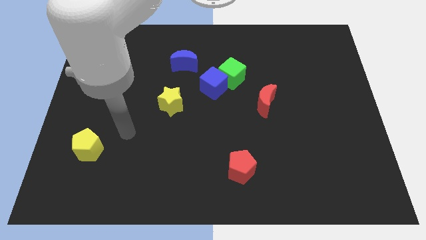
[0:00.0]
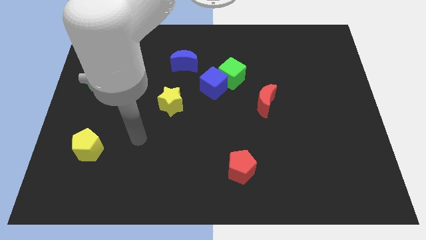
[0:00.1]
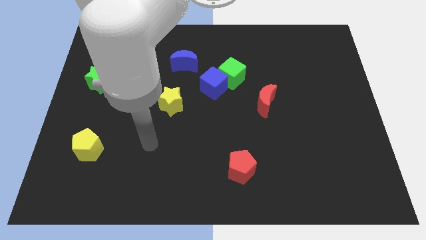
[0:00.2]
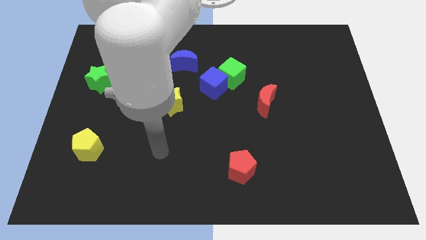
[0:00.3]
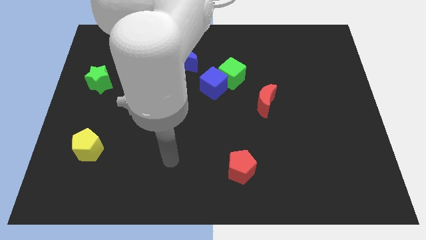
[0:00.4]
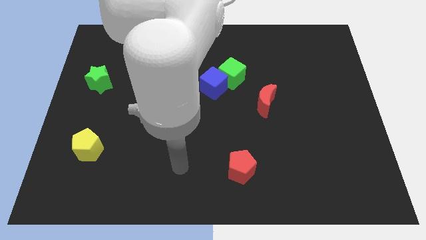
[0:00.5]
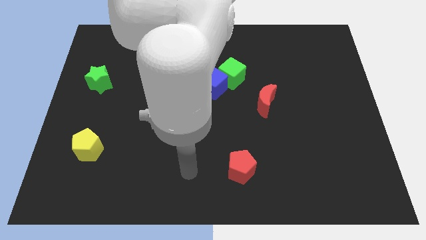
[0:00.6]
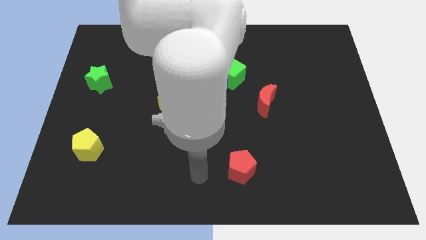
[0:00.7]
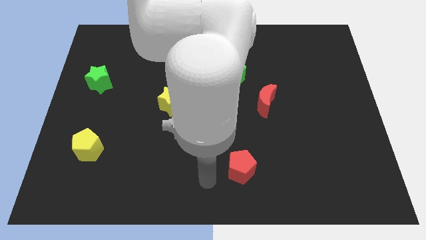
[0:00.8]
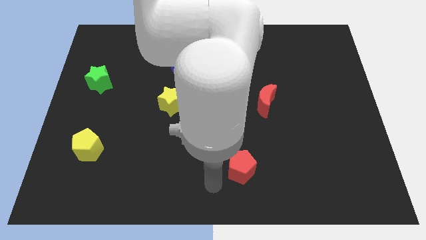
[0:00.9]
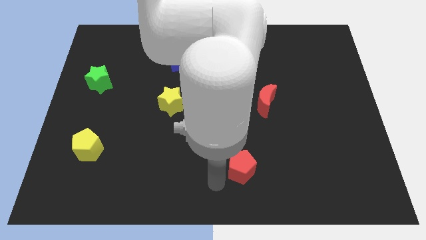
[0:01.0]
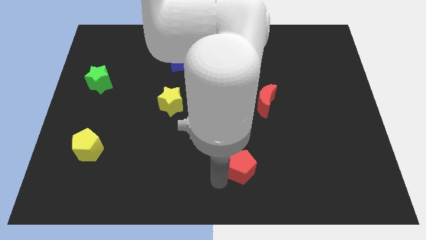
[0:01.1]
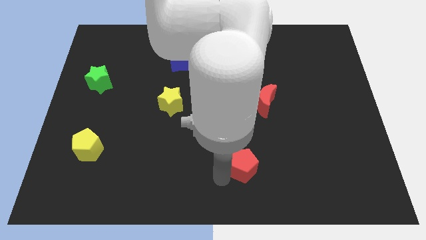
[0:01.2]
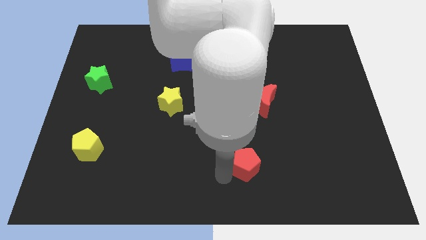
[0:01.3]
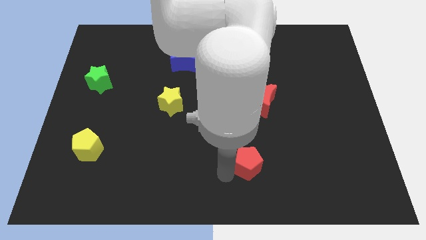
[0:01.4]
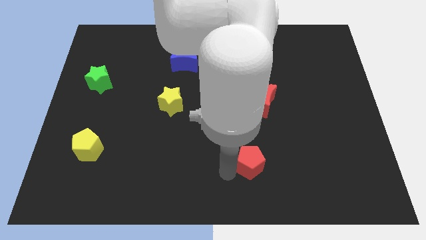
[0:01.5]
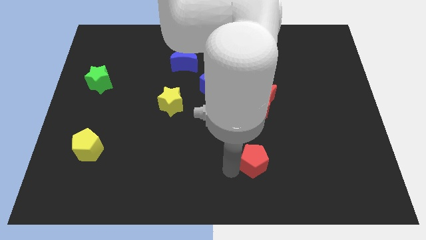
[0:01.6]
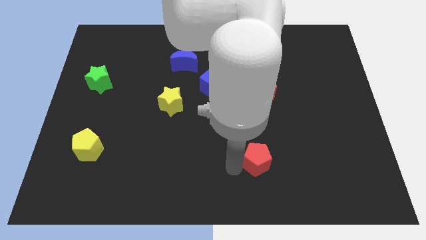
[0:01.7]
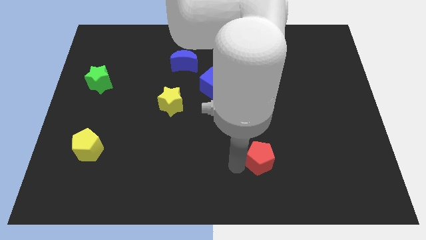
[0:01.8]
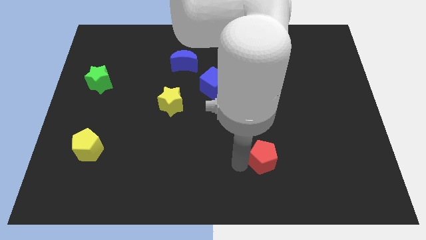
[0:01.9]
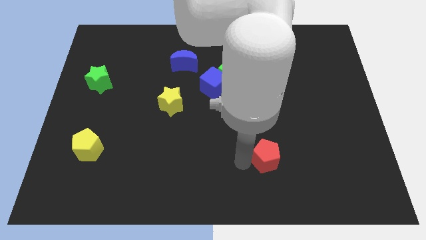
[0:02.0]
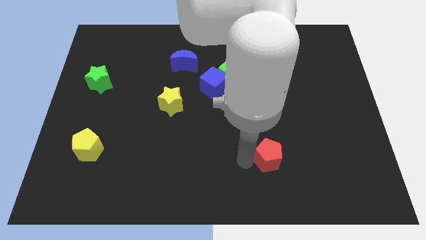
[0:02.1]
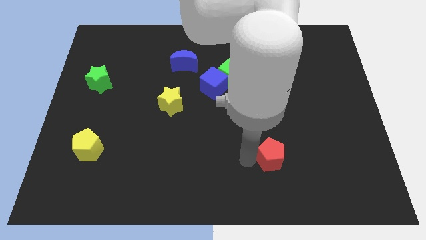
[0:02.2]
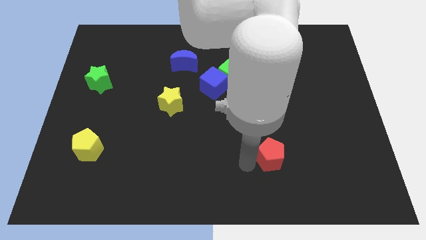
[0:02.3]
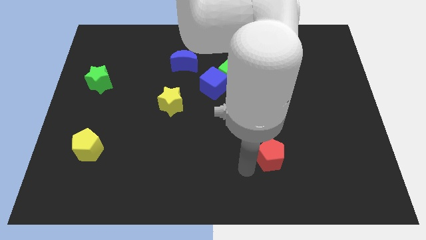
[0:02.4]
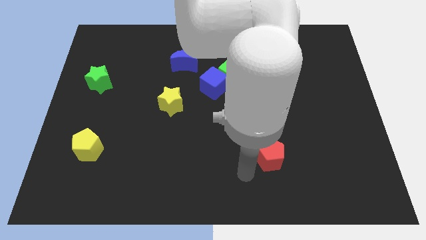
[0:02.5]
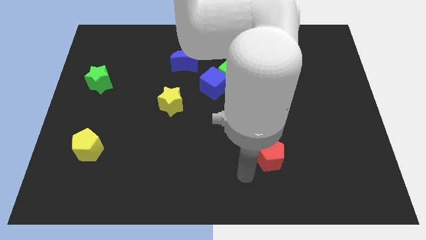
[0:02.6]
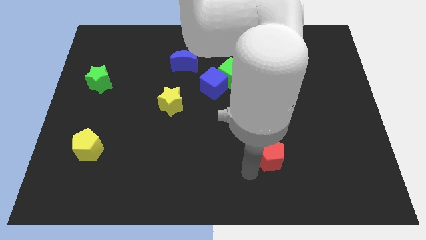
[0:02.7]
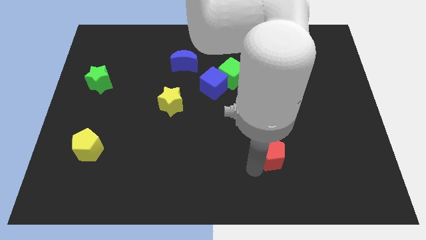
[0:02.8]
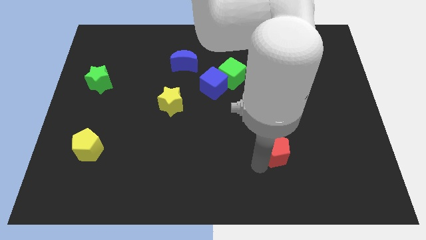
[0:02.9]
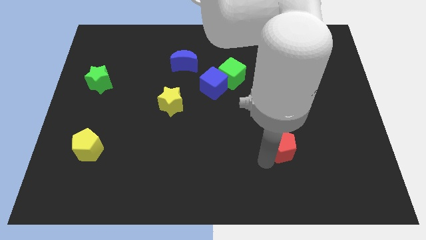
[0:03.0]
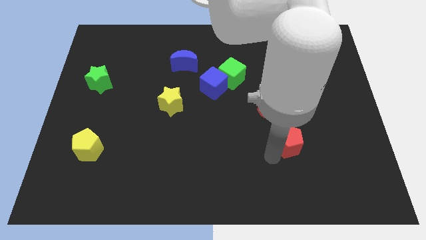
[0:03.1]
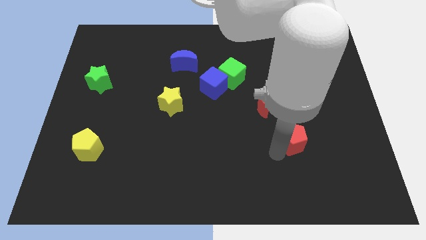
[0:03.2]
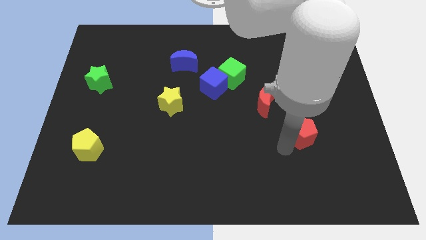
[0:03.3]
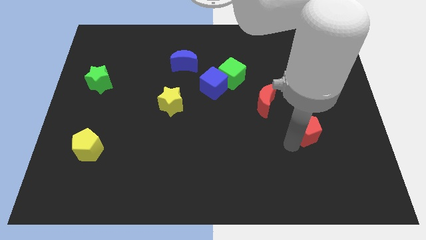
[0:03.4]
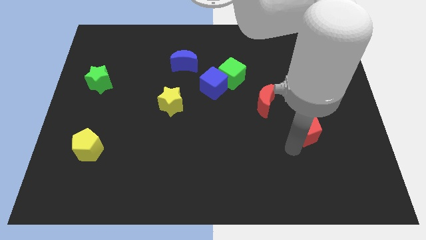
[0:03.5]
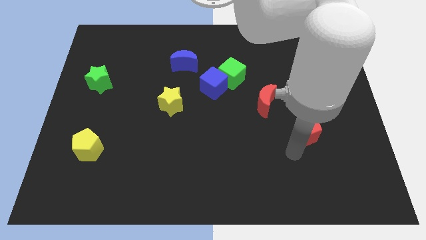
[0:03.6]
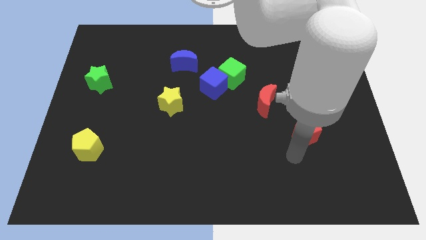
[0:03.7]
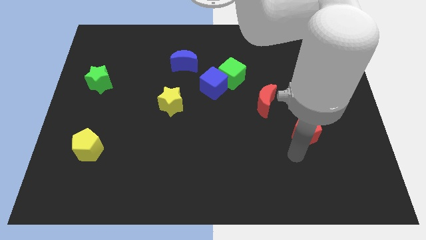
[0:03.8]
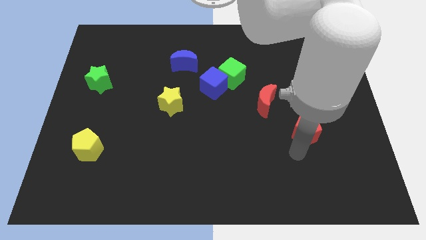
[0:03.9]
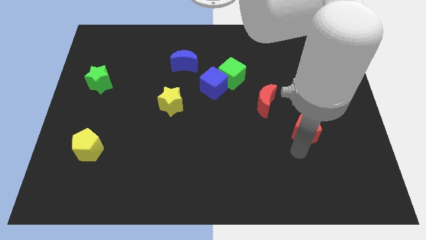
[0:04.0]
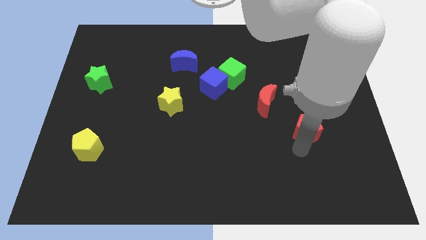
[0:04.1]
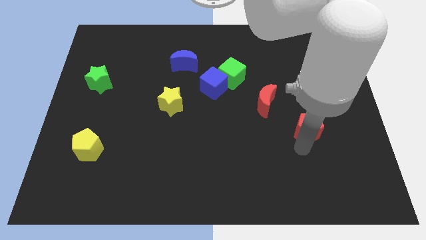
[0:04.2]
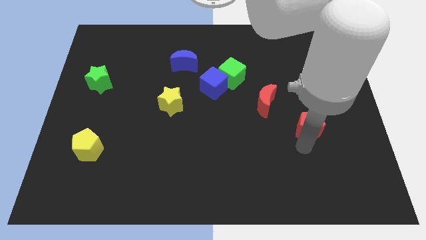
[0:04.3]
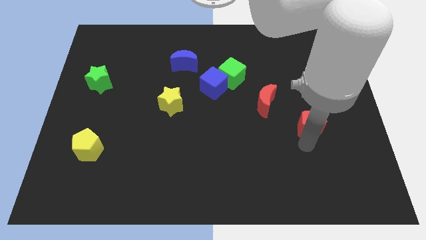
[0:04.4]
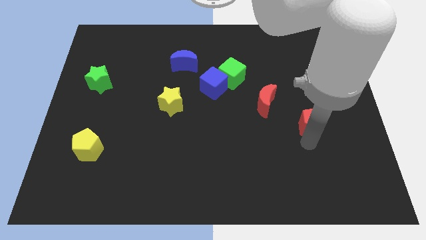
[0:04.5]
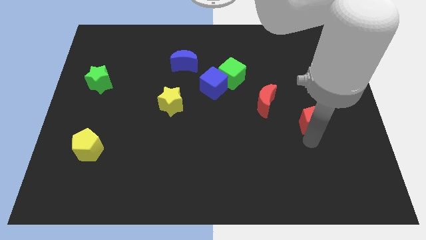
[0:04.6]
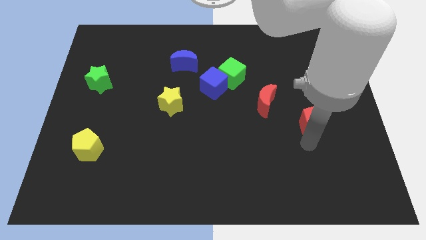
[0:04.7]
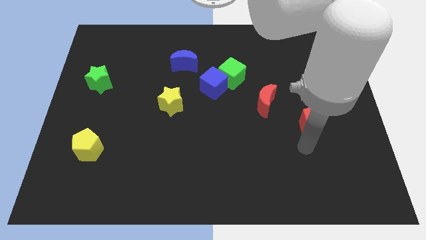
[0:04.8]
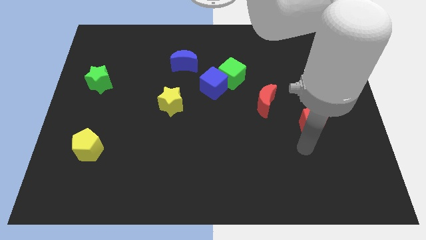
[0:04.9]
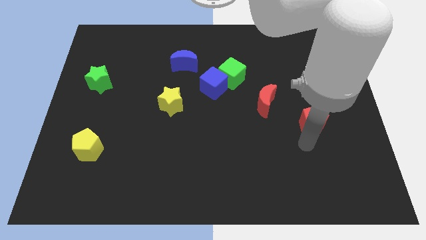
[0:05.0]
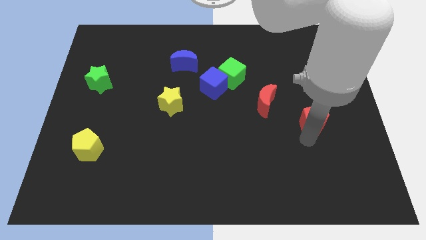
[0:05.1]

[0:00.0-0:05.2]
slide the red pentagon upwards and then to the right

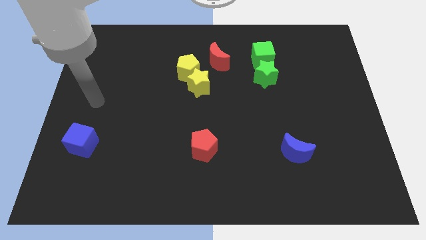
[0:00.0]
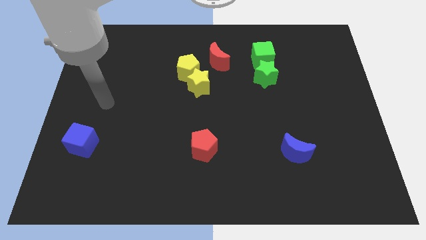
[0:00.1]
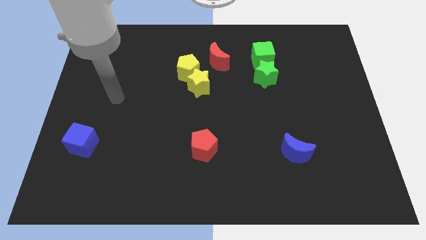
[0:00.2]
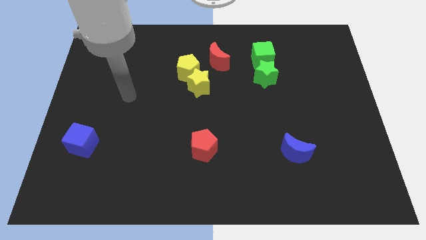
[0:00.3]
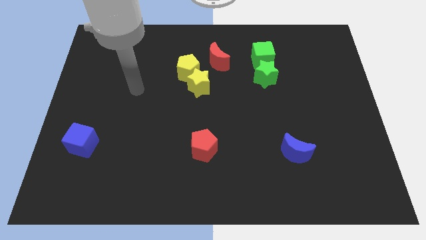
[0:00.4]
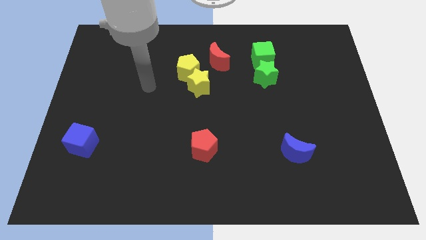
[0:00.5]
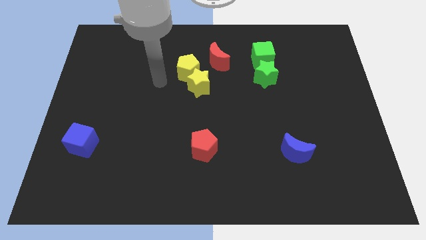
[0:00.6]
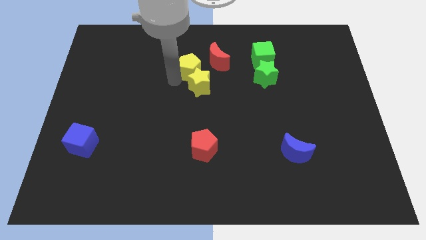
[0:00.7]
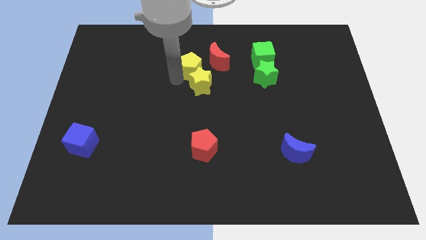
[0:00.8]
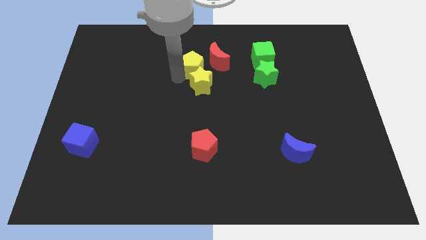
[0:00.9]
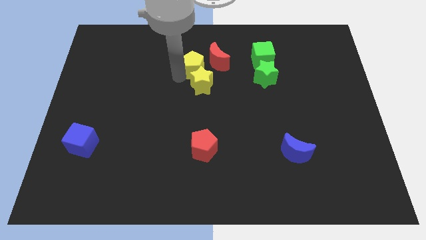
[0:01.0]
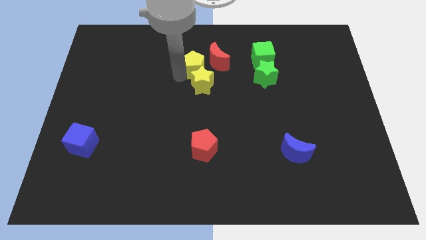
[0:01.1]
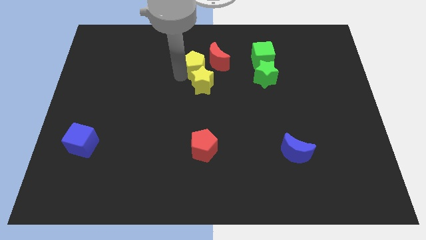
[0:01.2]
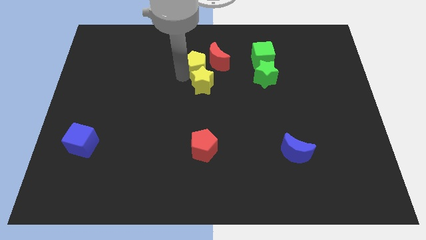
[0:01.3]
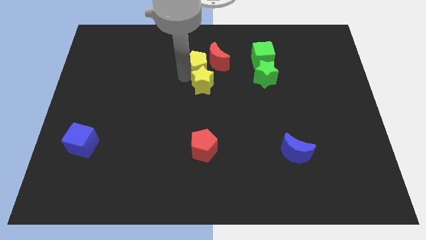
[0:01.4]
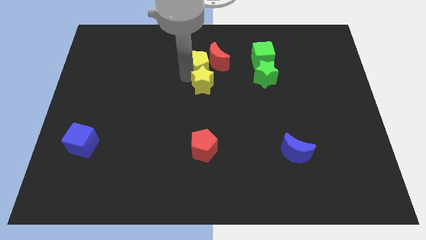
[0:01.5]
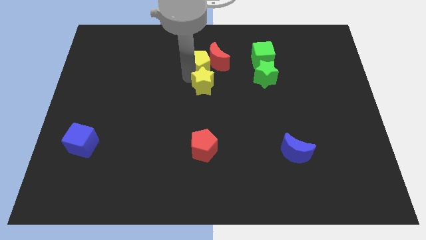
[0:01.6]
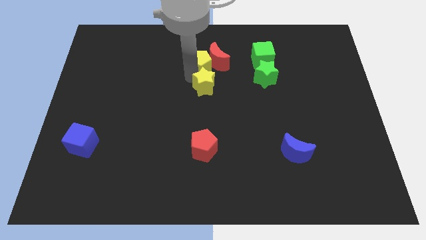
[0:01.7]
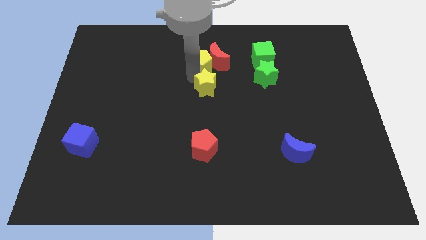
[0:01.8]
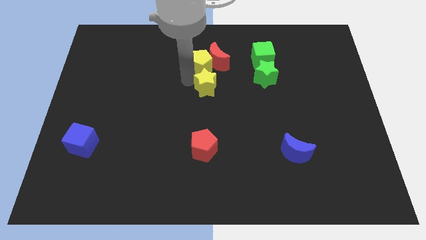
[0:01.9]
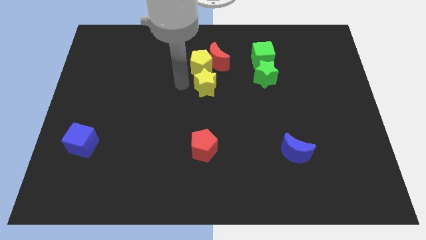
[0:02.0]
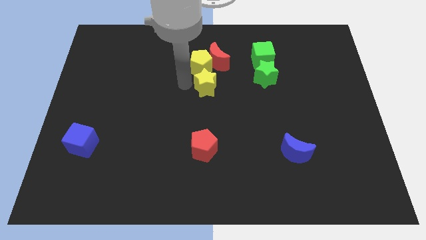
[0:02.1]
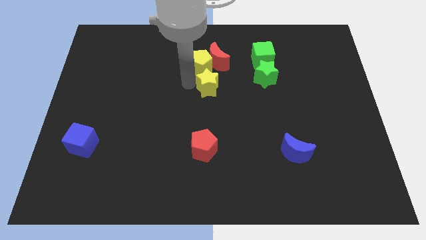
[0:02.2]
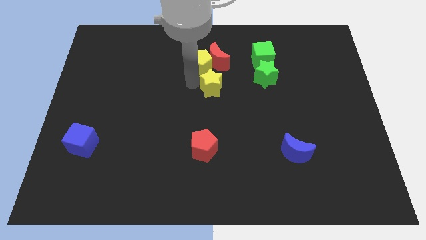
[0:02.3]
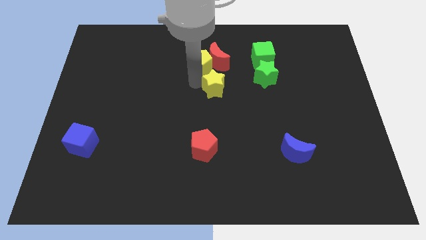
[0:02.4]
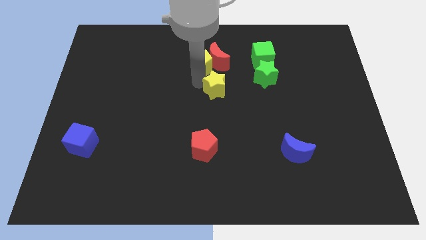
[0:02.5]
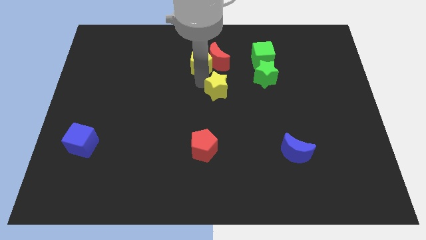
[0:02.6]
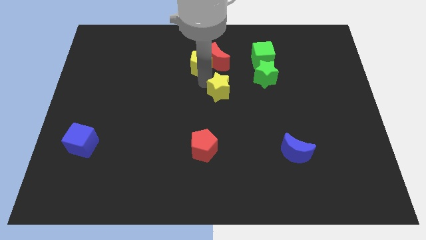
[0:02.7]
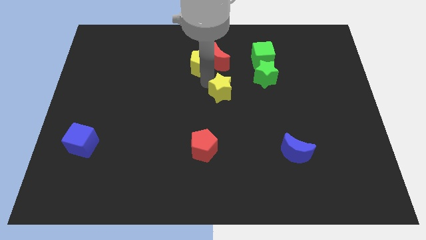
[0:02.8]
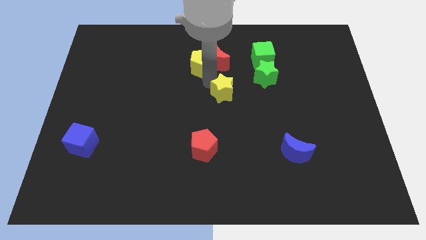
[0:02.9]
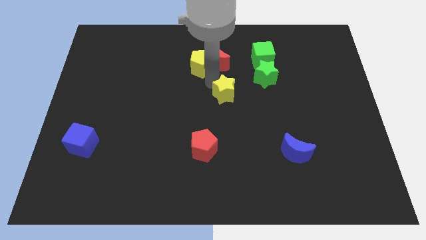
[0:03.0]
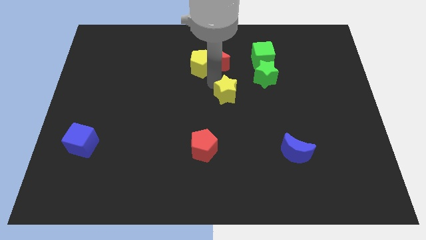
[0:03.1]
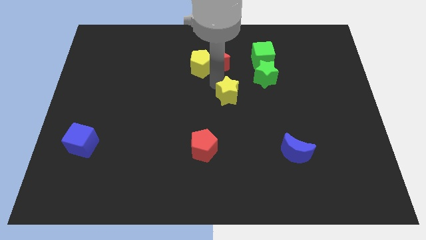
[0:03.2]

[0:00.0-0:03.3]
slide the yellow star a little bit right
